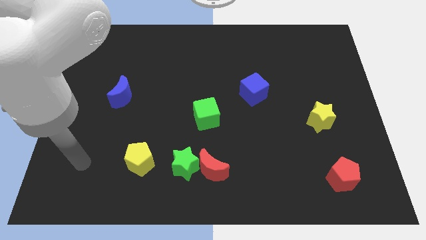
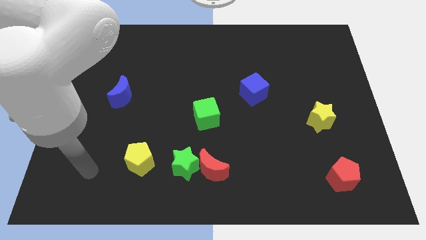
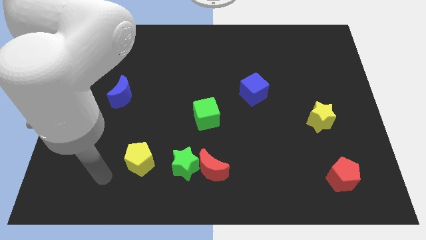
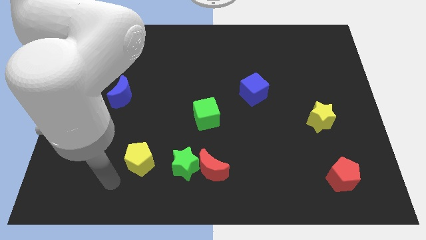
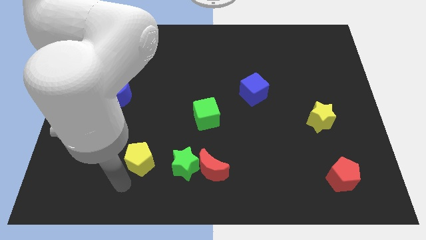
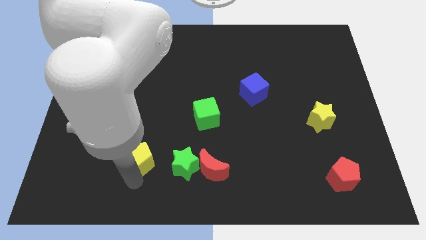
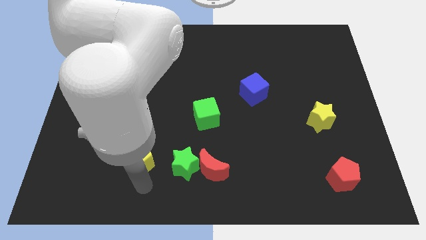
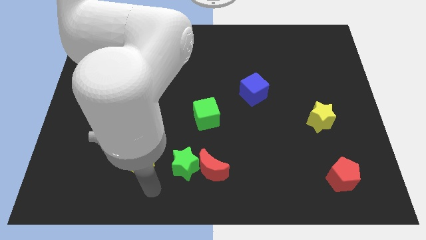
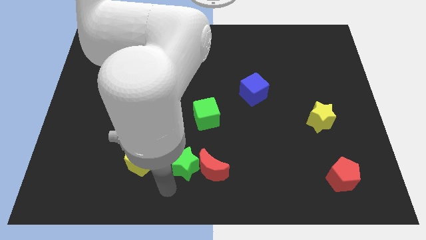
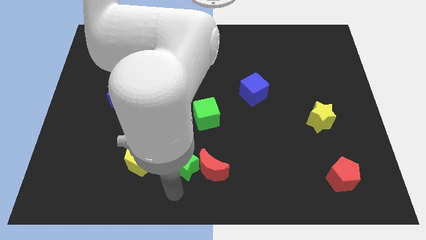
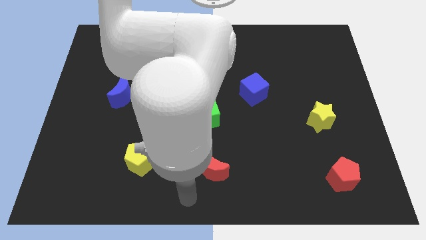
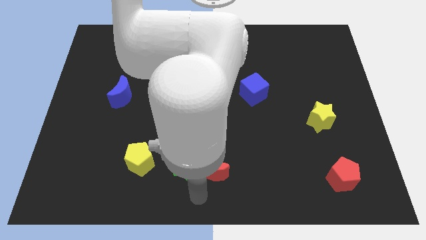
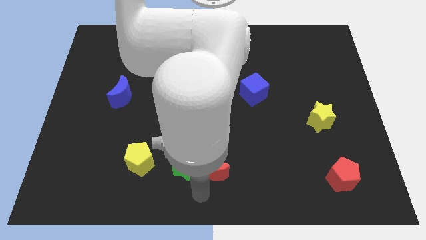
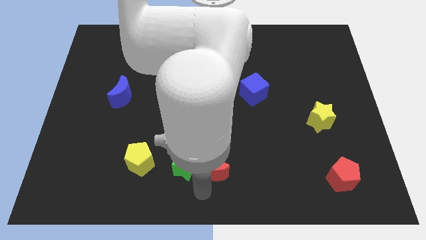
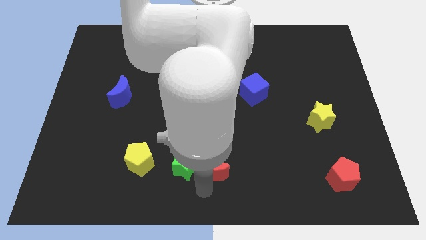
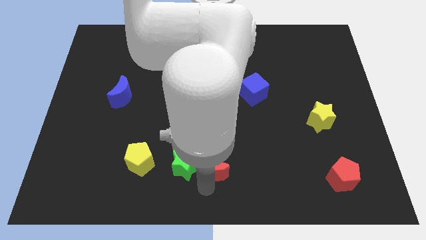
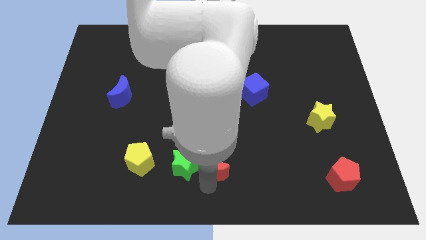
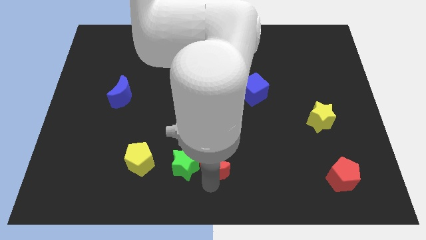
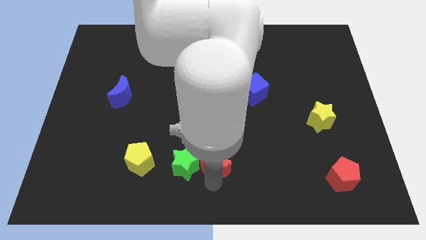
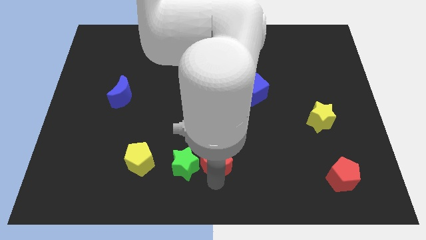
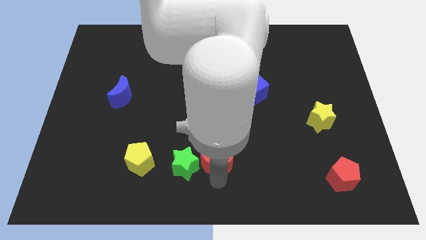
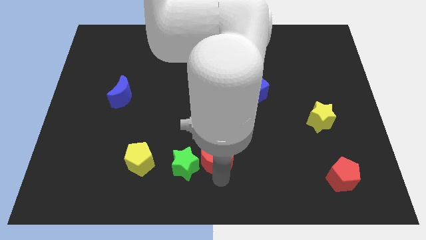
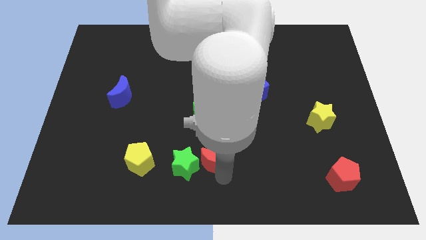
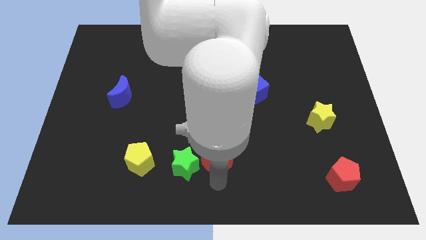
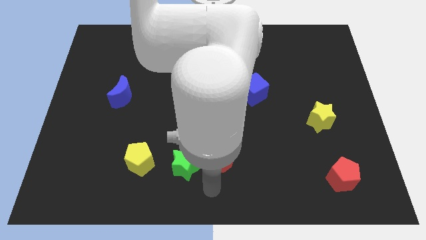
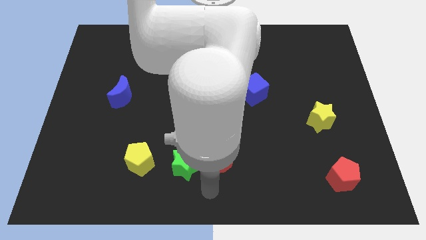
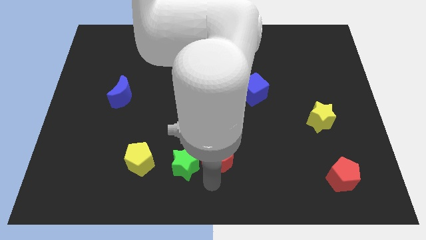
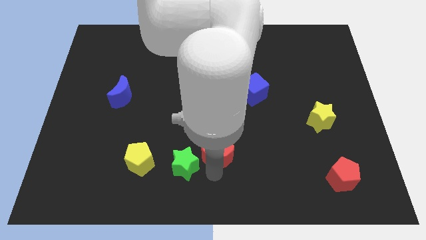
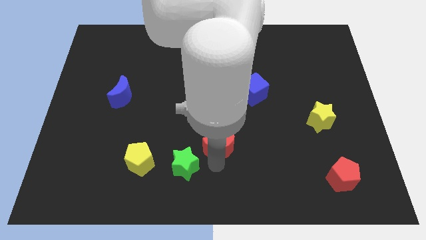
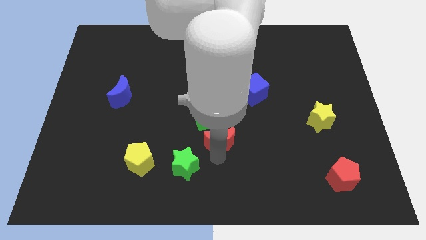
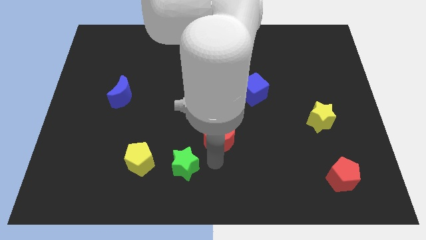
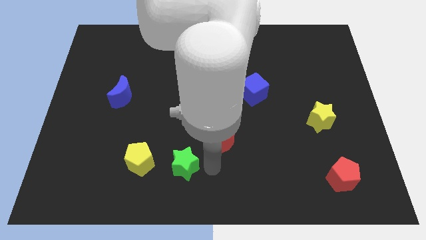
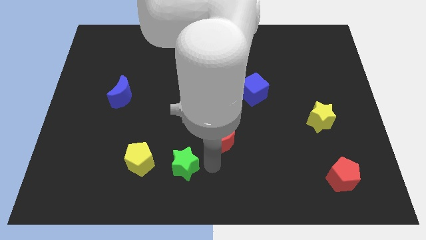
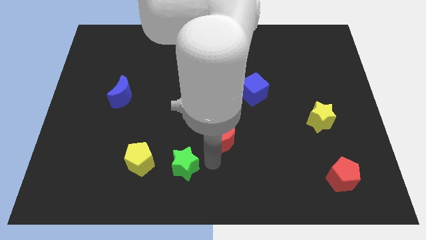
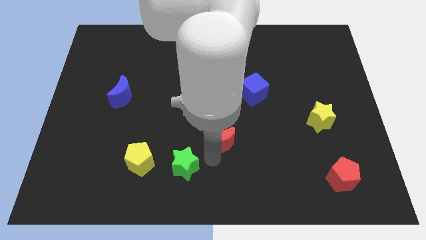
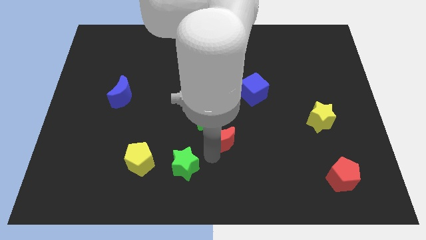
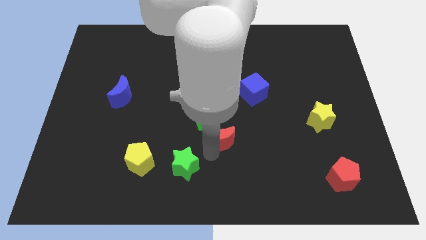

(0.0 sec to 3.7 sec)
slightly move the red moon upwards

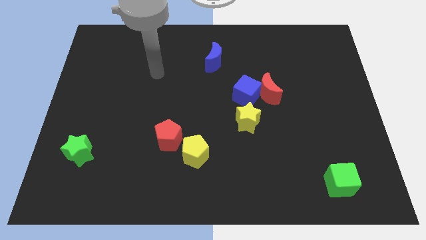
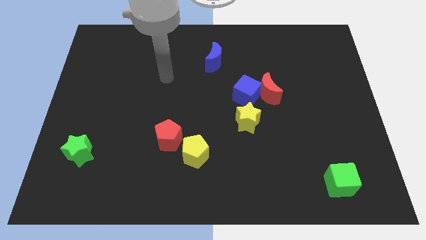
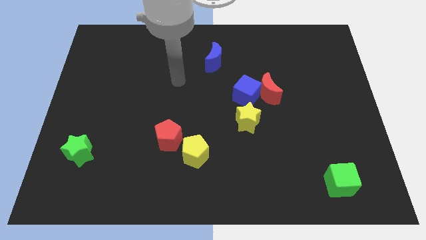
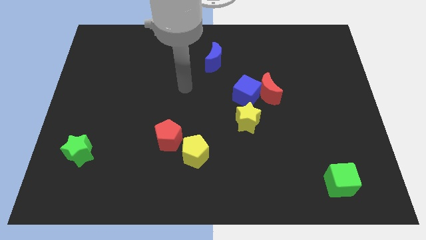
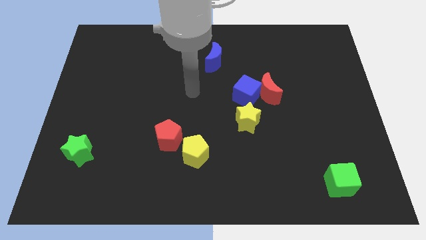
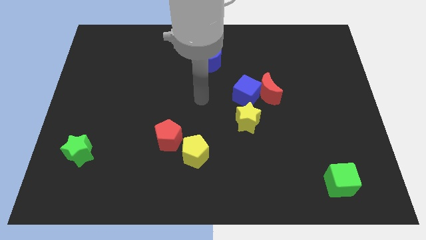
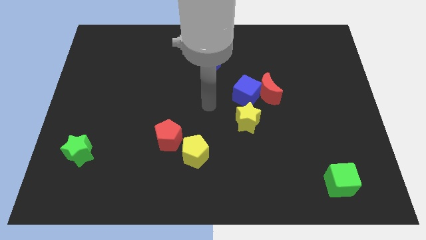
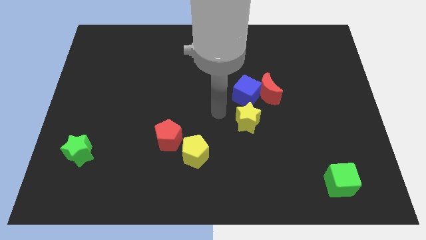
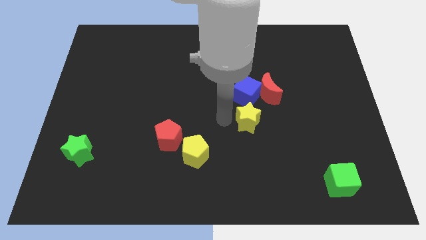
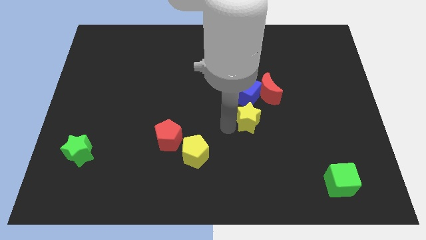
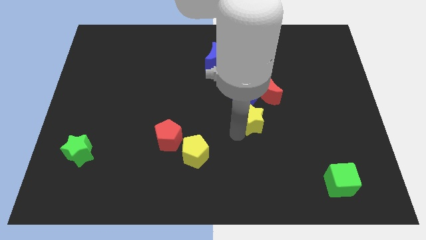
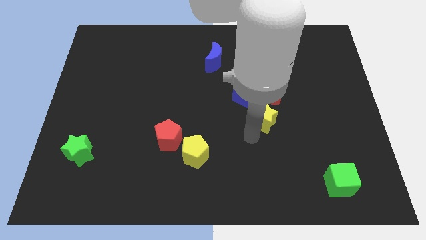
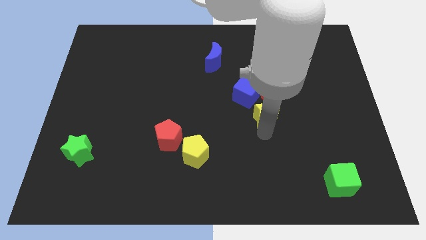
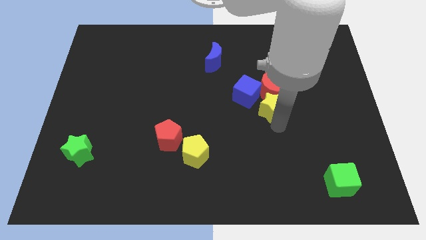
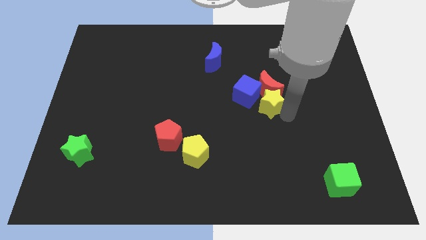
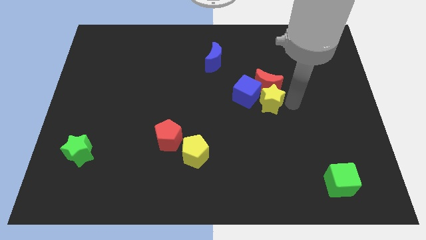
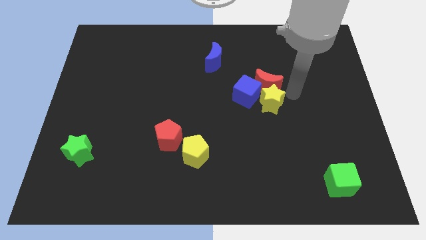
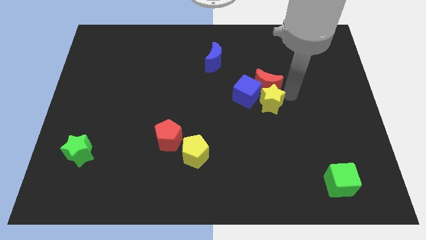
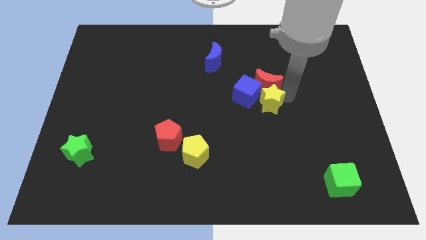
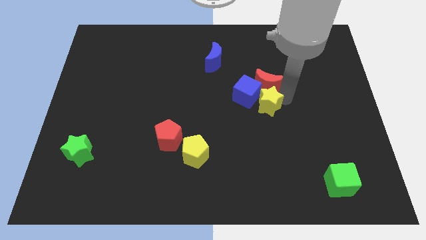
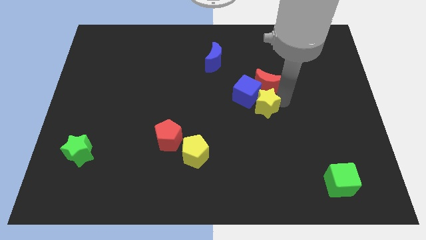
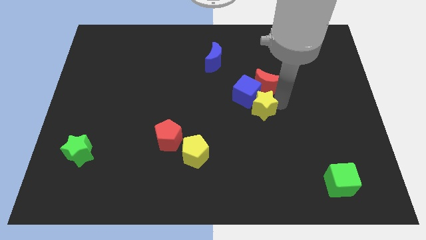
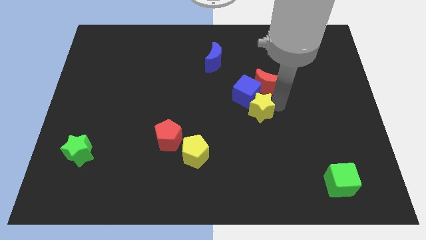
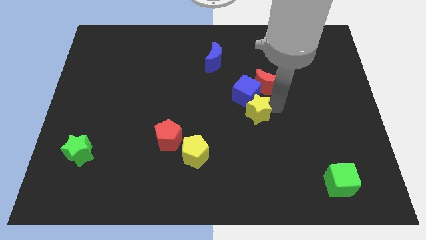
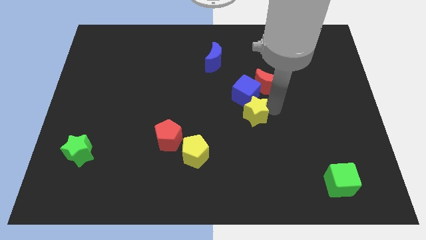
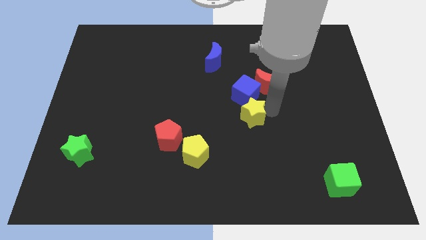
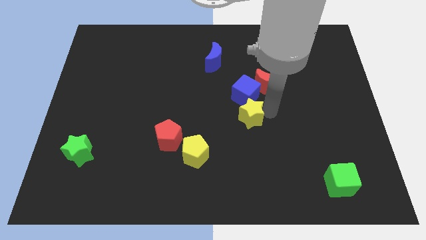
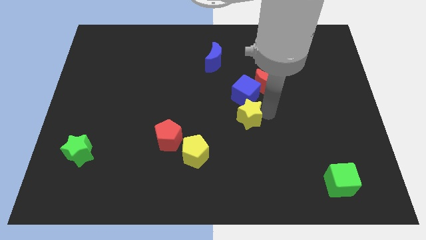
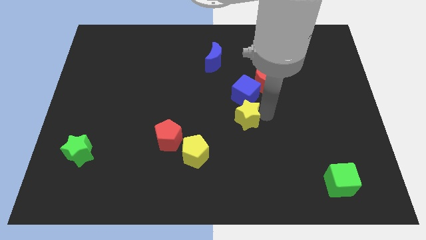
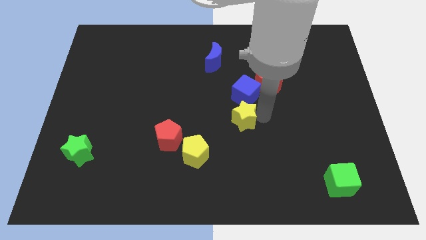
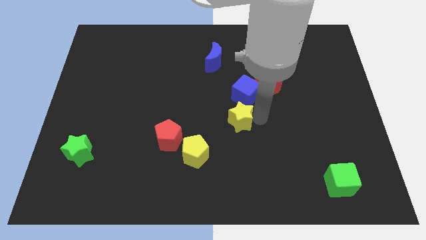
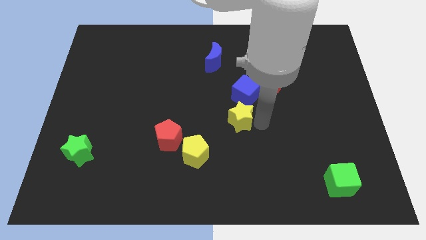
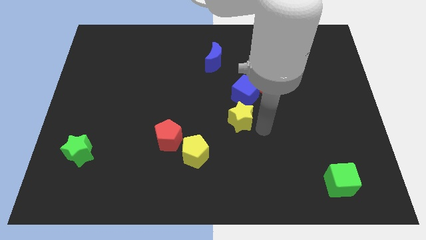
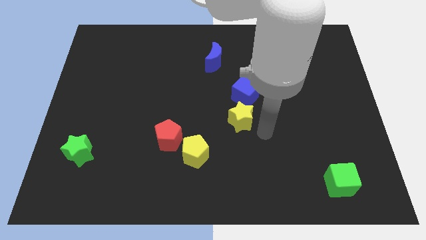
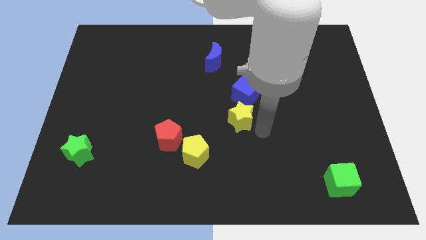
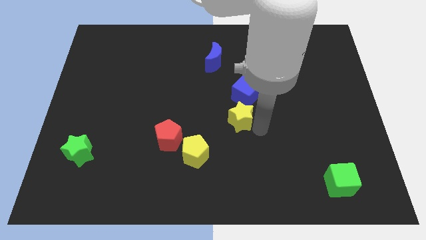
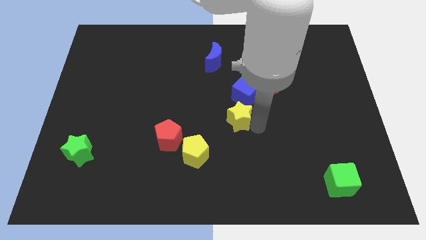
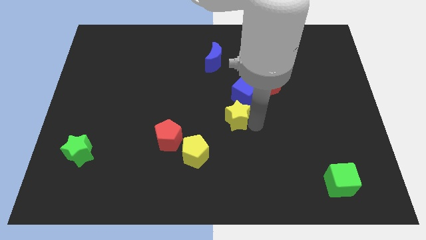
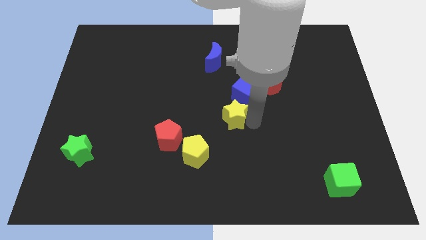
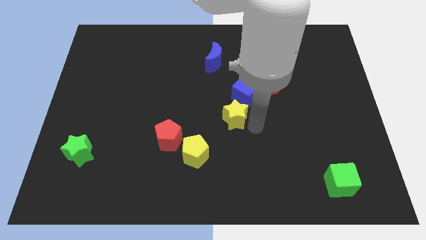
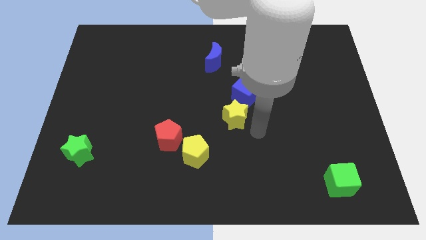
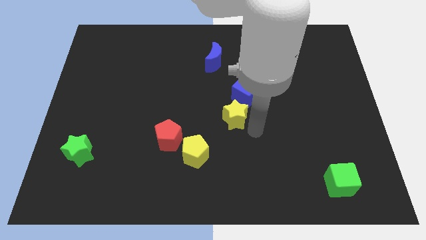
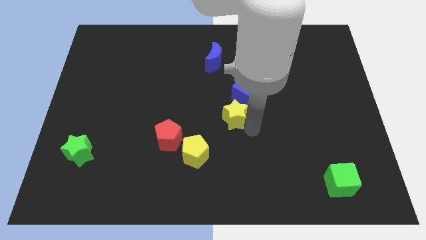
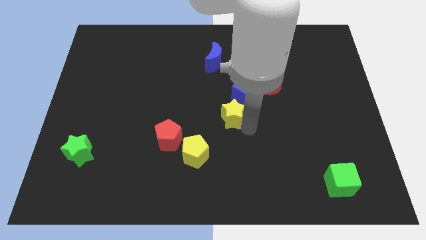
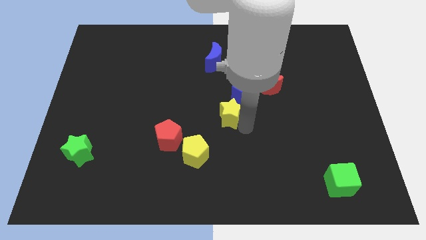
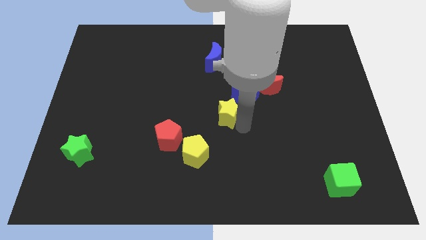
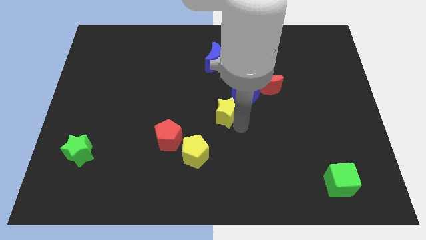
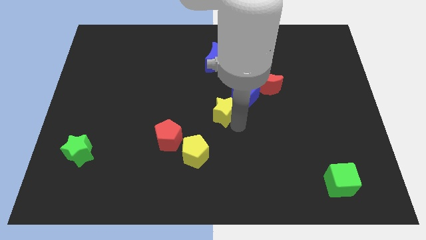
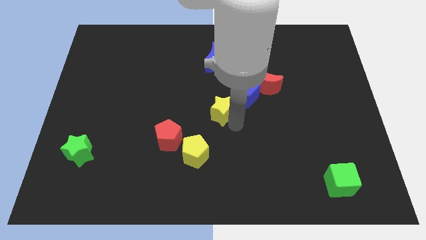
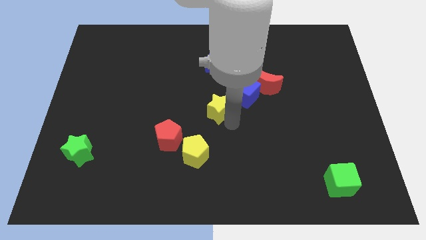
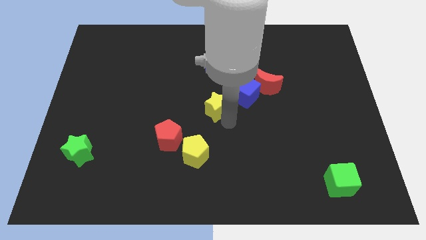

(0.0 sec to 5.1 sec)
slightly push the yellow star upwards and then left
